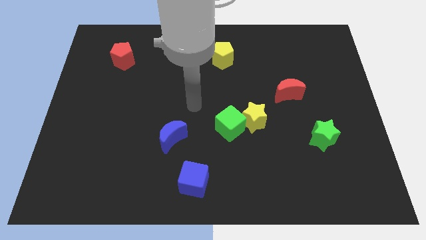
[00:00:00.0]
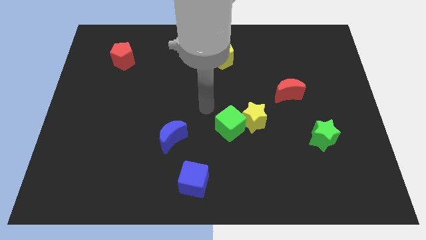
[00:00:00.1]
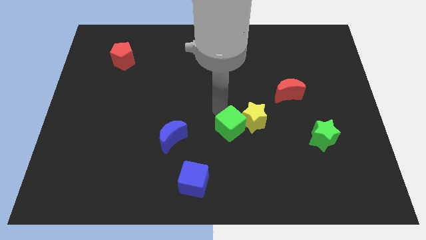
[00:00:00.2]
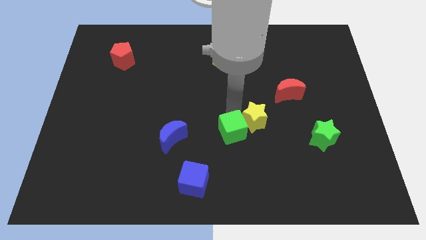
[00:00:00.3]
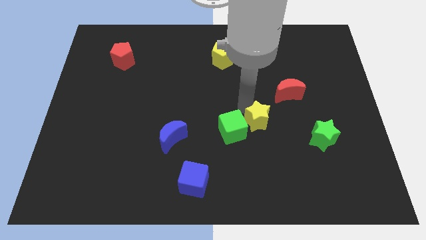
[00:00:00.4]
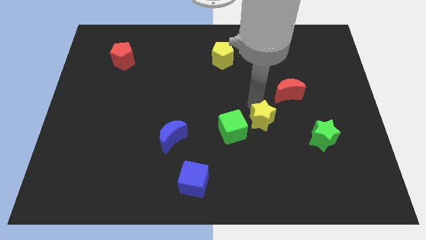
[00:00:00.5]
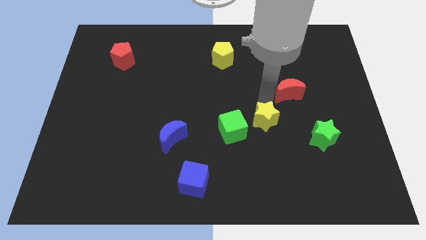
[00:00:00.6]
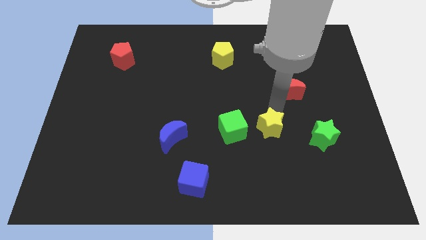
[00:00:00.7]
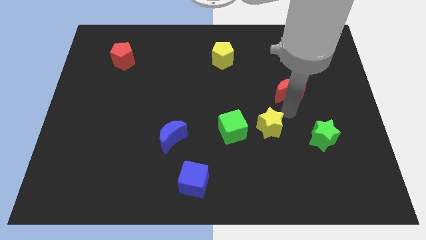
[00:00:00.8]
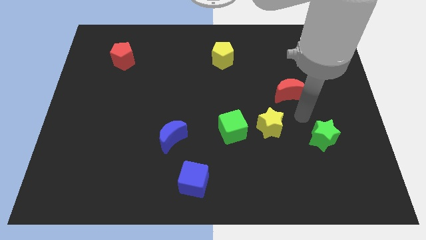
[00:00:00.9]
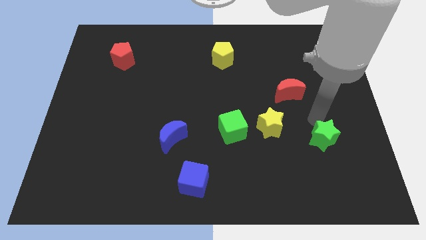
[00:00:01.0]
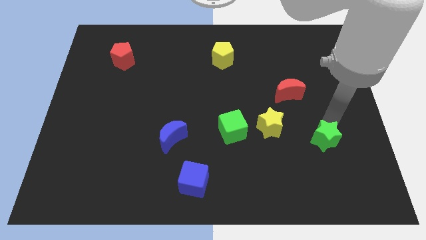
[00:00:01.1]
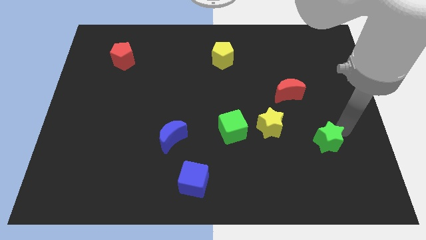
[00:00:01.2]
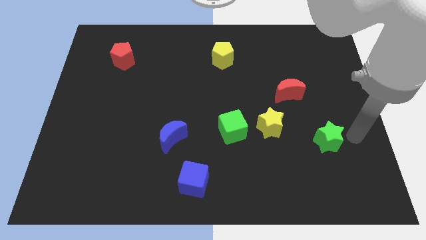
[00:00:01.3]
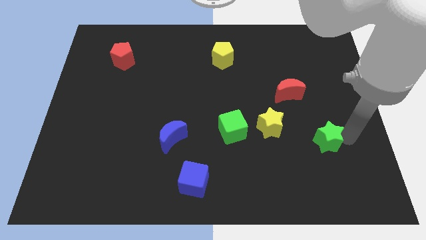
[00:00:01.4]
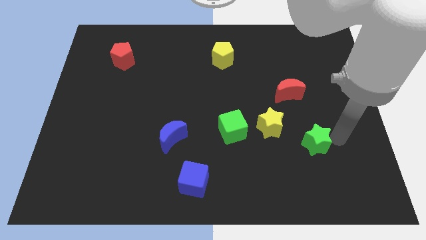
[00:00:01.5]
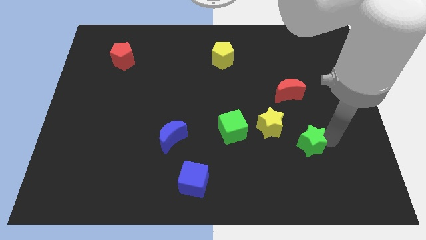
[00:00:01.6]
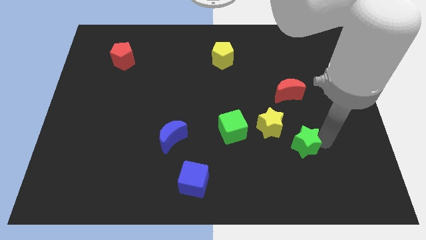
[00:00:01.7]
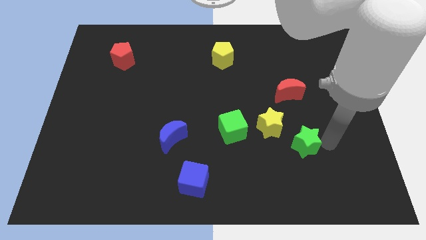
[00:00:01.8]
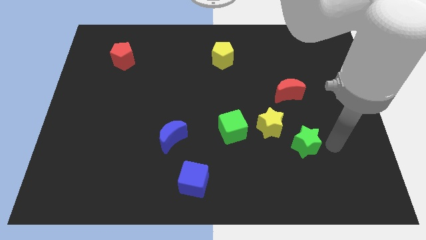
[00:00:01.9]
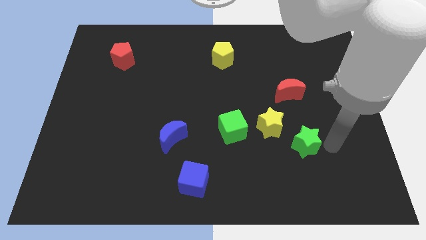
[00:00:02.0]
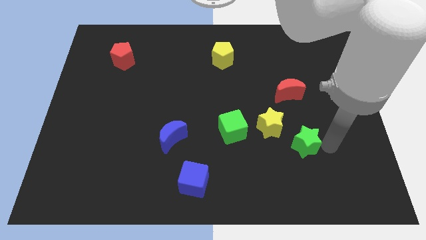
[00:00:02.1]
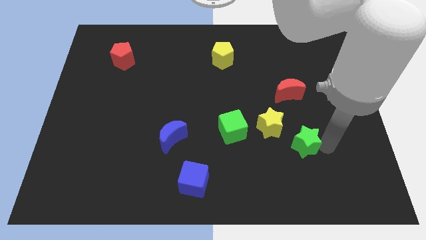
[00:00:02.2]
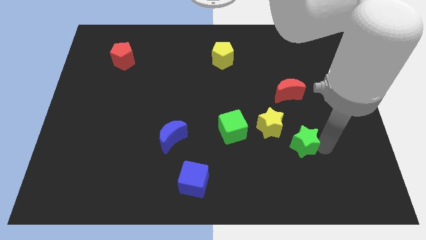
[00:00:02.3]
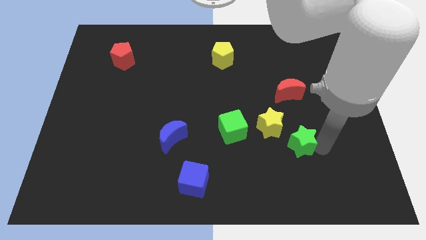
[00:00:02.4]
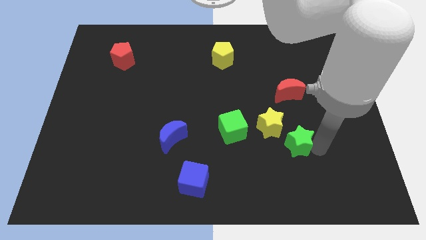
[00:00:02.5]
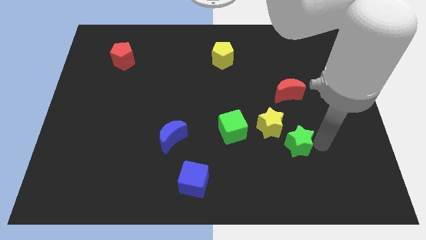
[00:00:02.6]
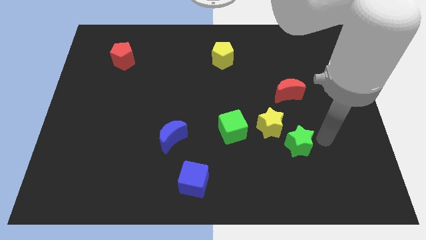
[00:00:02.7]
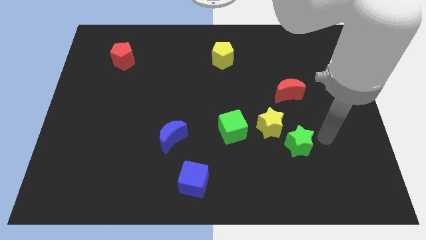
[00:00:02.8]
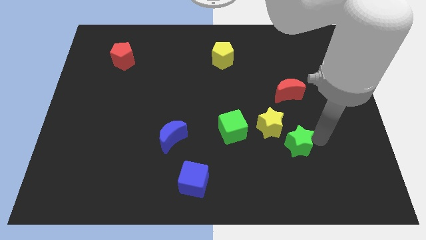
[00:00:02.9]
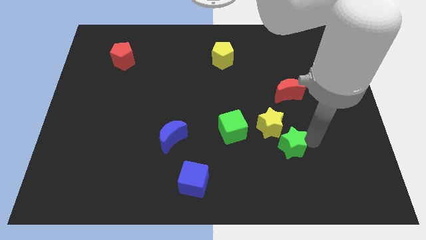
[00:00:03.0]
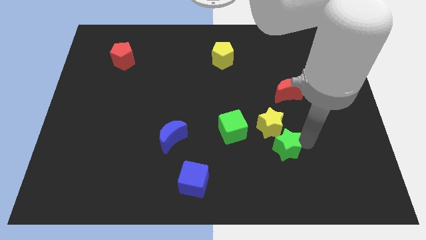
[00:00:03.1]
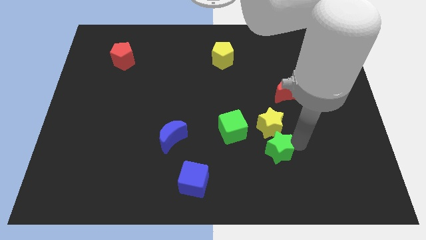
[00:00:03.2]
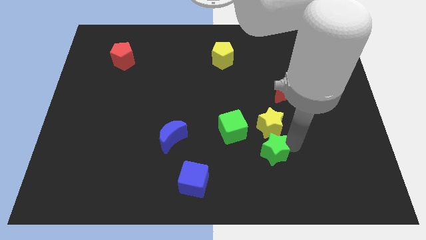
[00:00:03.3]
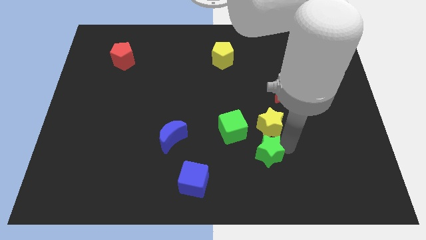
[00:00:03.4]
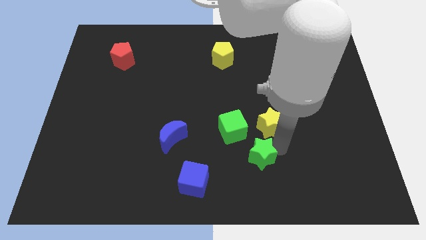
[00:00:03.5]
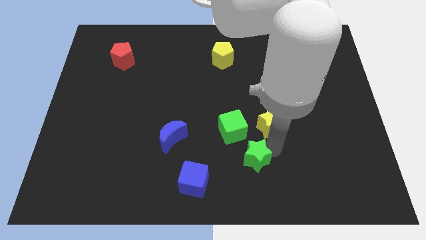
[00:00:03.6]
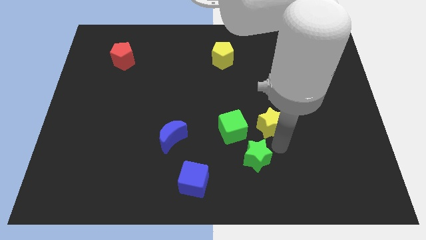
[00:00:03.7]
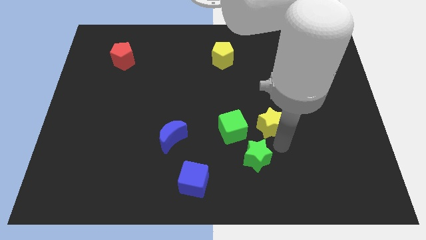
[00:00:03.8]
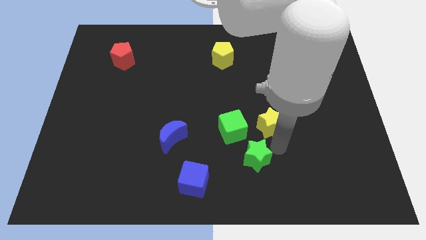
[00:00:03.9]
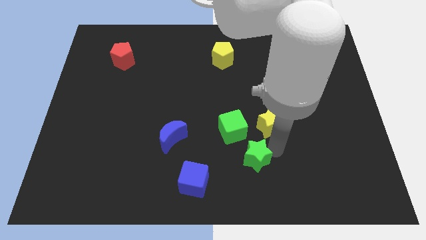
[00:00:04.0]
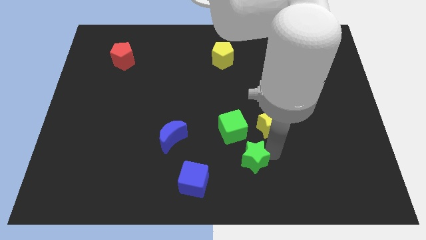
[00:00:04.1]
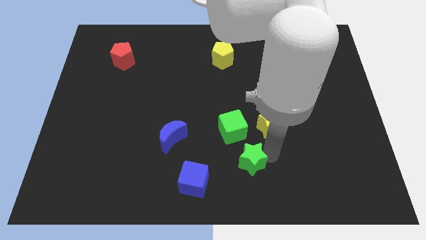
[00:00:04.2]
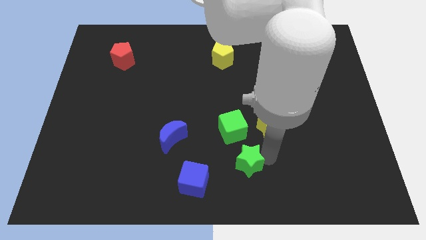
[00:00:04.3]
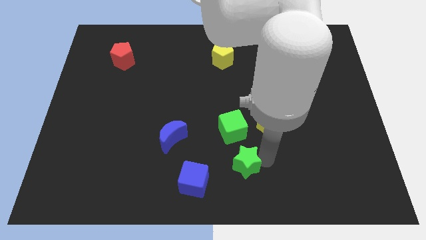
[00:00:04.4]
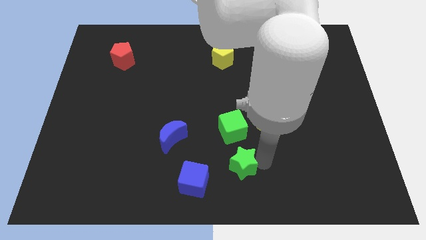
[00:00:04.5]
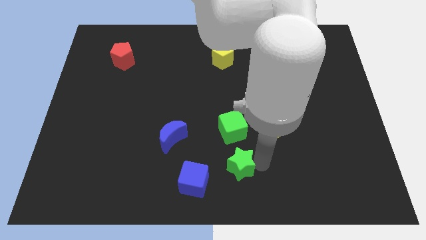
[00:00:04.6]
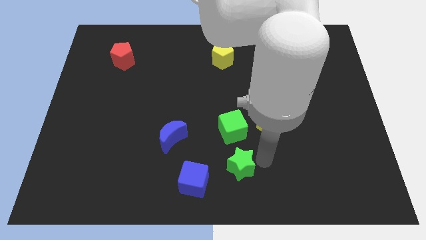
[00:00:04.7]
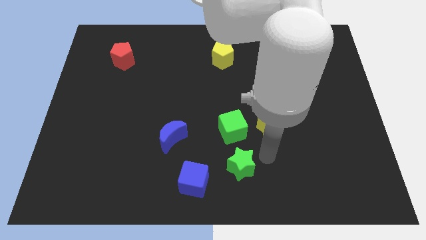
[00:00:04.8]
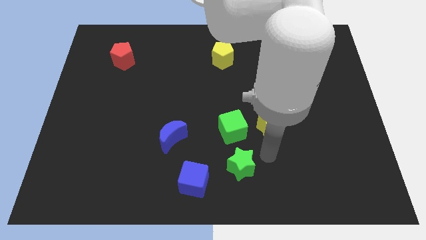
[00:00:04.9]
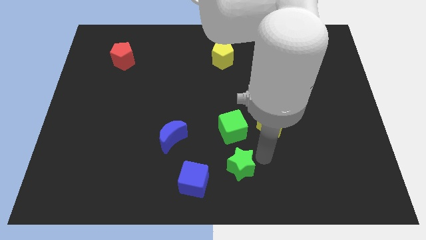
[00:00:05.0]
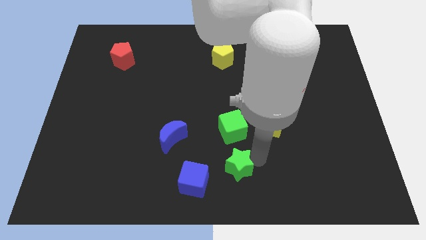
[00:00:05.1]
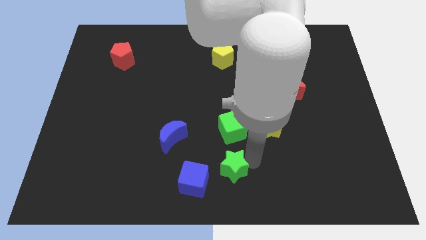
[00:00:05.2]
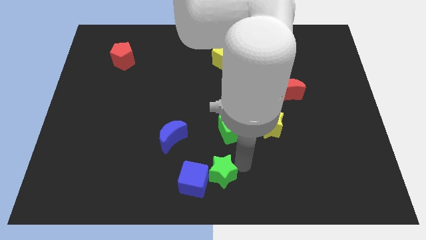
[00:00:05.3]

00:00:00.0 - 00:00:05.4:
push the green star towards the blue cube

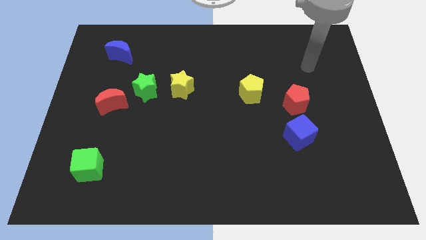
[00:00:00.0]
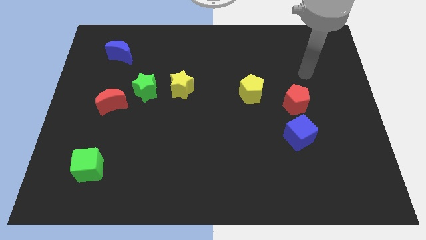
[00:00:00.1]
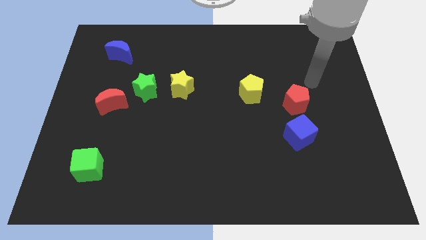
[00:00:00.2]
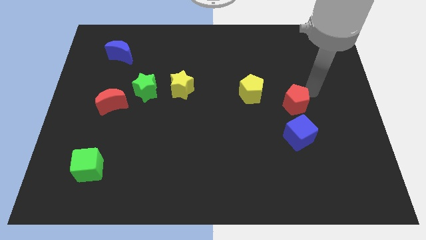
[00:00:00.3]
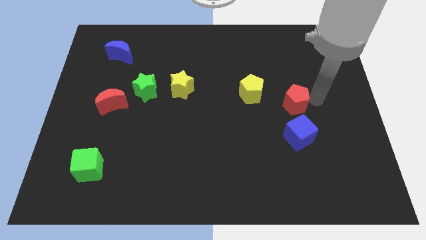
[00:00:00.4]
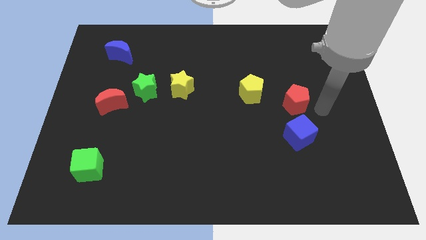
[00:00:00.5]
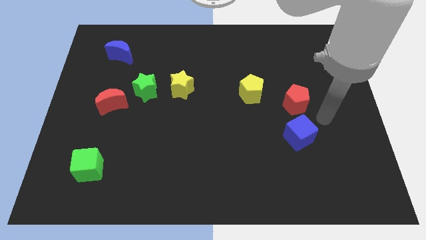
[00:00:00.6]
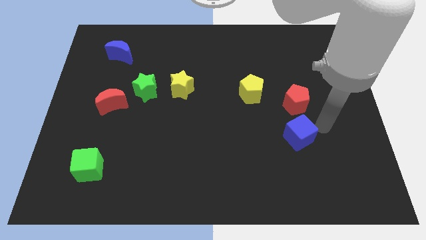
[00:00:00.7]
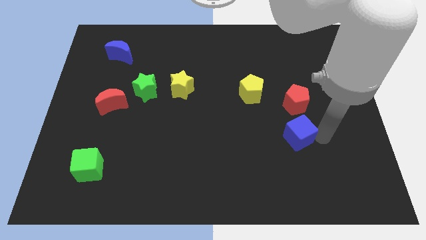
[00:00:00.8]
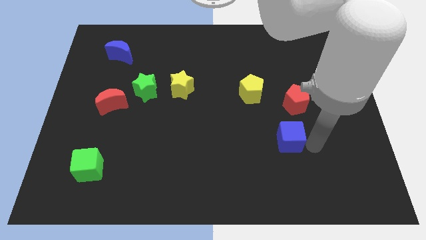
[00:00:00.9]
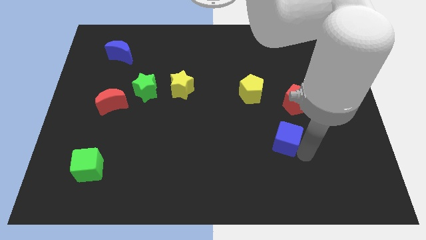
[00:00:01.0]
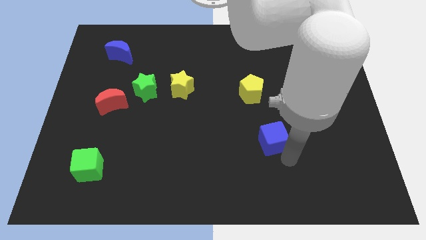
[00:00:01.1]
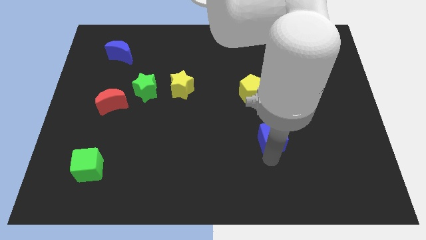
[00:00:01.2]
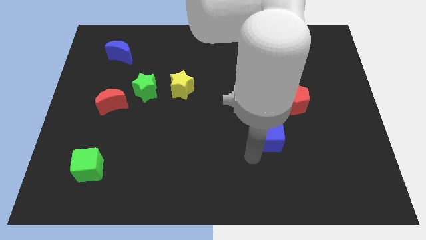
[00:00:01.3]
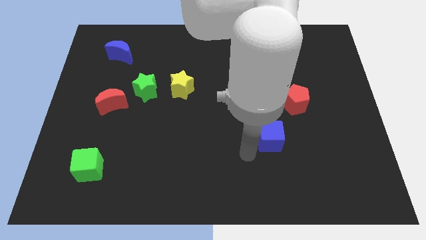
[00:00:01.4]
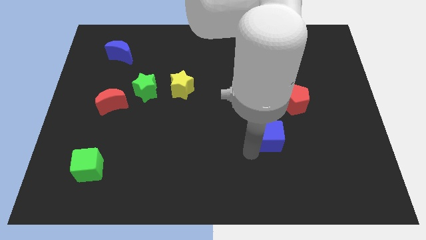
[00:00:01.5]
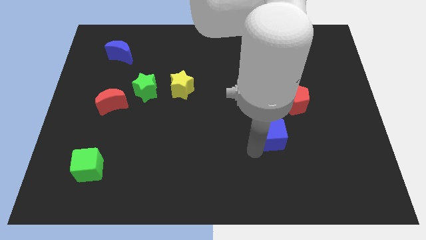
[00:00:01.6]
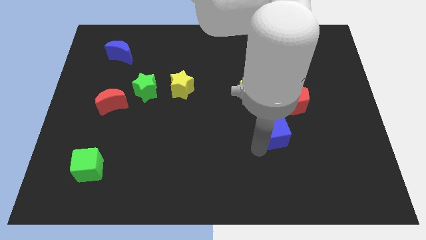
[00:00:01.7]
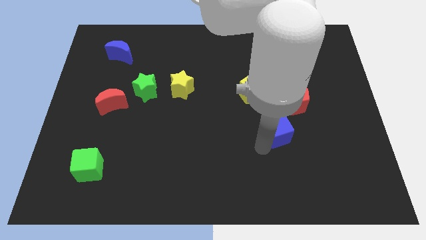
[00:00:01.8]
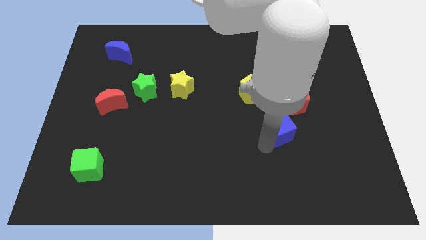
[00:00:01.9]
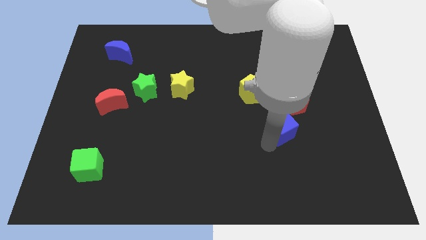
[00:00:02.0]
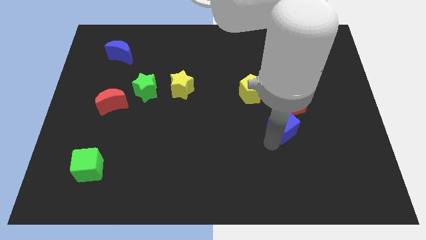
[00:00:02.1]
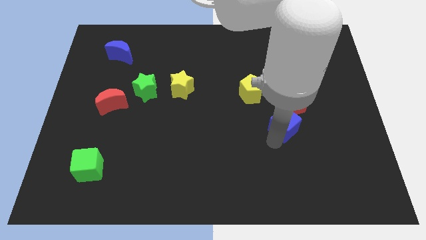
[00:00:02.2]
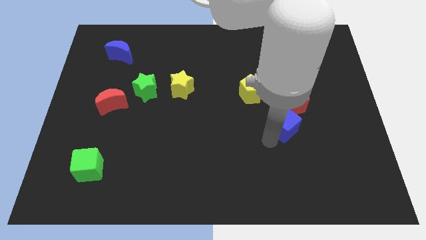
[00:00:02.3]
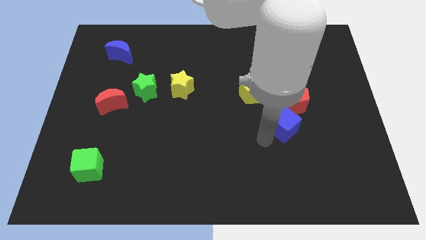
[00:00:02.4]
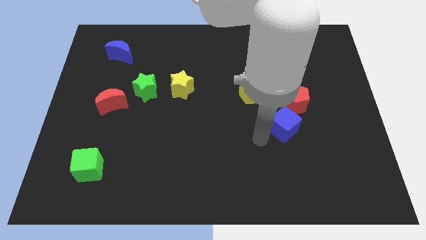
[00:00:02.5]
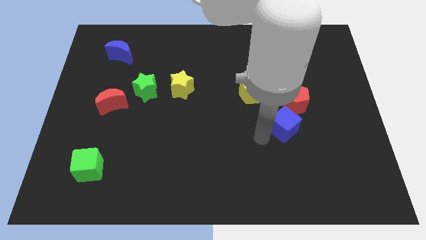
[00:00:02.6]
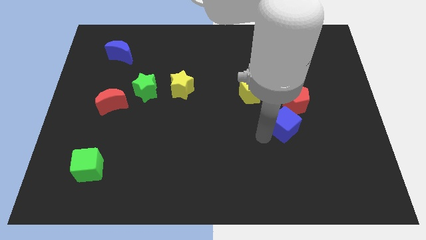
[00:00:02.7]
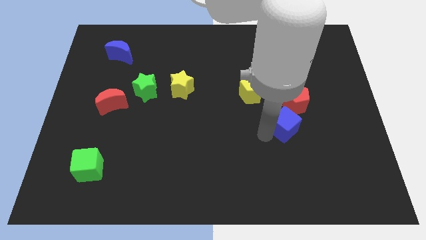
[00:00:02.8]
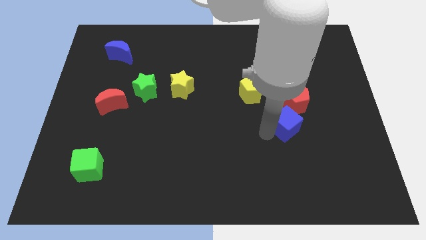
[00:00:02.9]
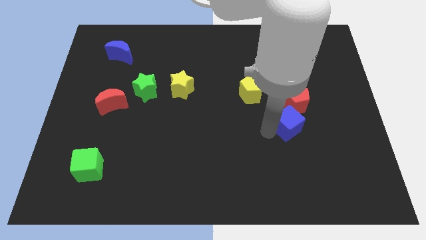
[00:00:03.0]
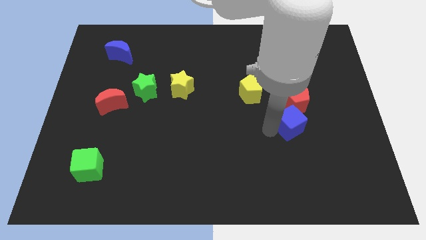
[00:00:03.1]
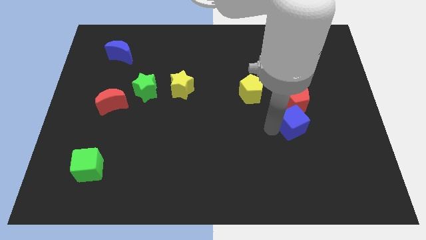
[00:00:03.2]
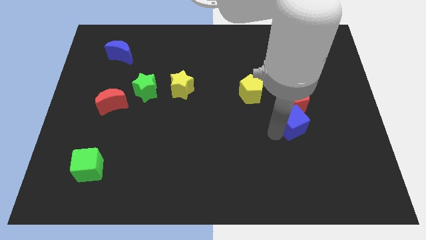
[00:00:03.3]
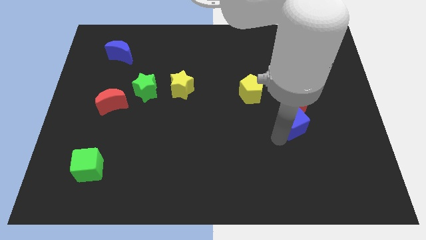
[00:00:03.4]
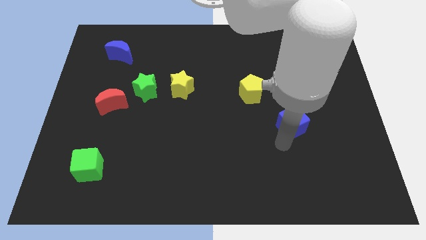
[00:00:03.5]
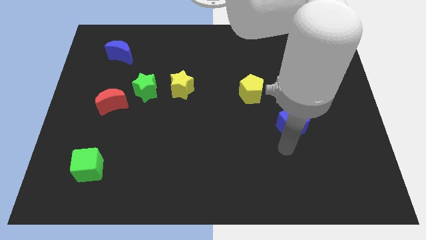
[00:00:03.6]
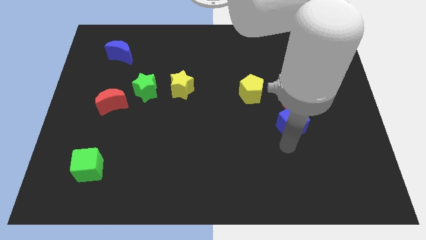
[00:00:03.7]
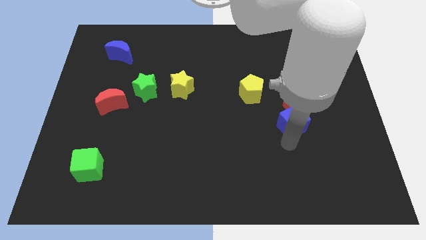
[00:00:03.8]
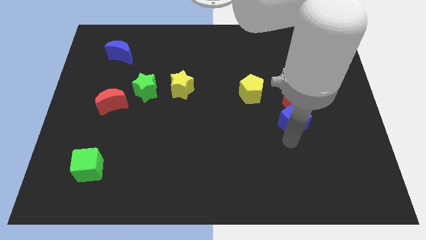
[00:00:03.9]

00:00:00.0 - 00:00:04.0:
slide the blue cube to the red pentagon
